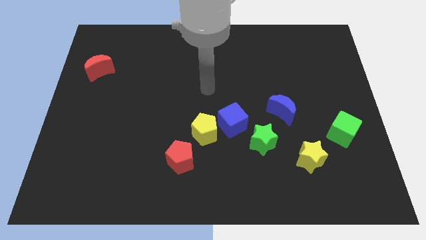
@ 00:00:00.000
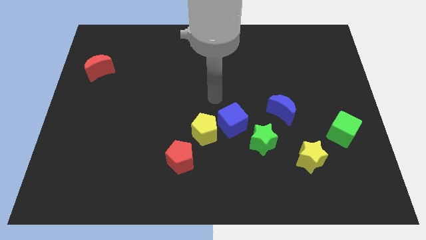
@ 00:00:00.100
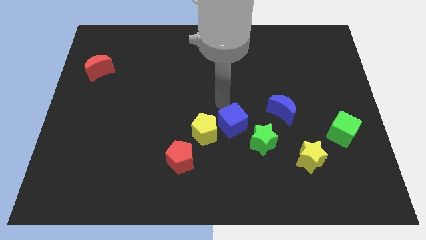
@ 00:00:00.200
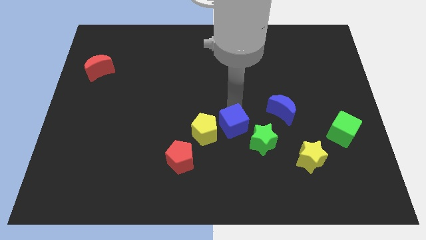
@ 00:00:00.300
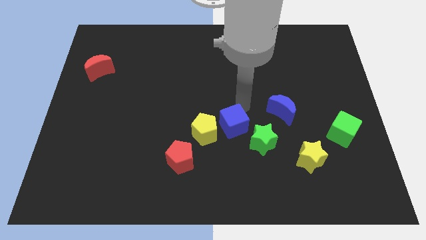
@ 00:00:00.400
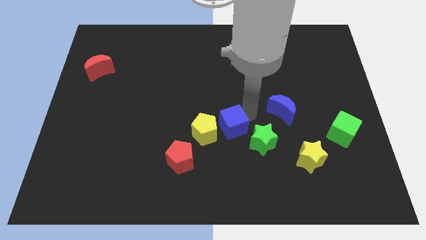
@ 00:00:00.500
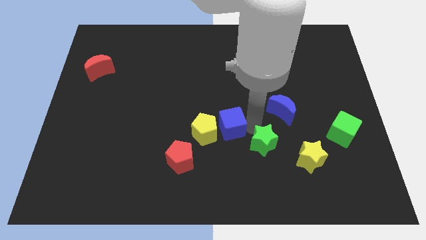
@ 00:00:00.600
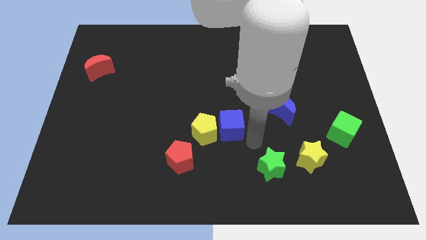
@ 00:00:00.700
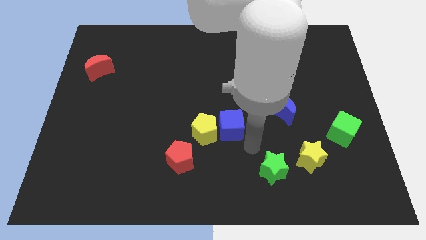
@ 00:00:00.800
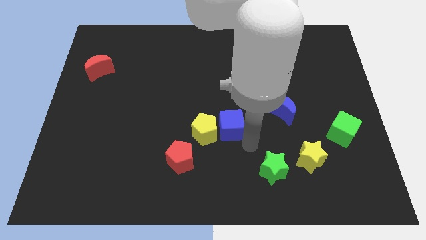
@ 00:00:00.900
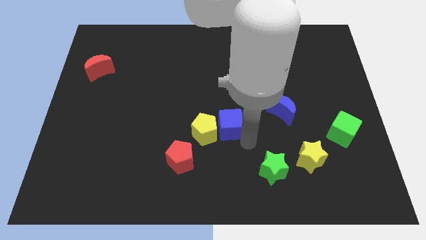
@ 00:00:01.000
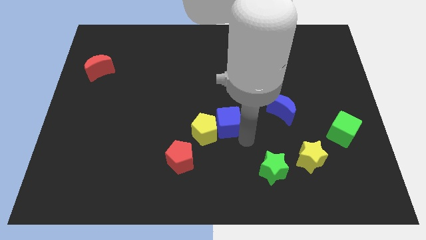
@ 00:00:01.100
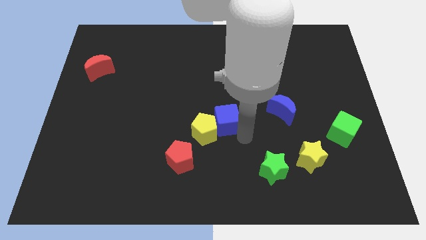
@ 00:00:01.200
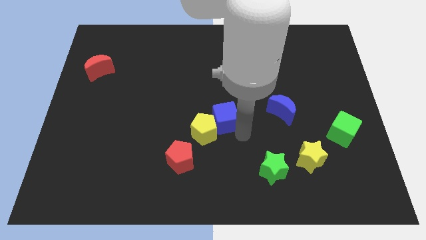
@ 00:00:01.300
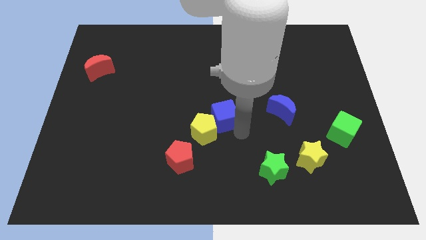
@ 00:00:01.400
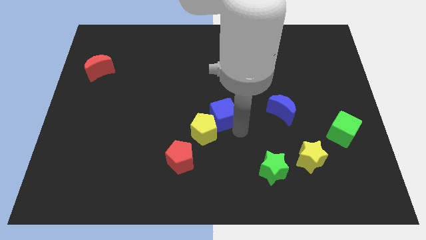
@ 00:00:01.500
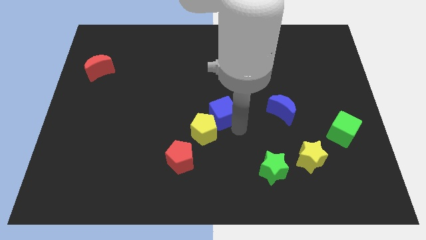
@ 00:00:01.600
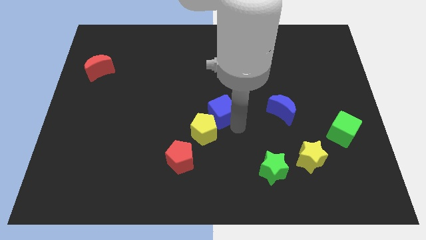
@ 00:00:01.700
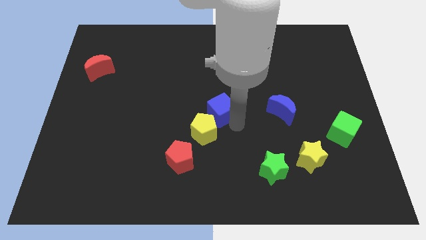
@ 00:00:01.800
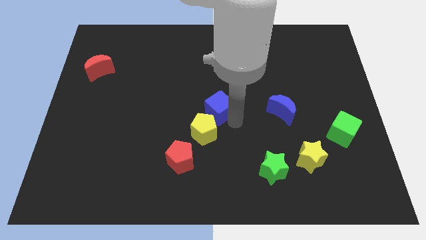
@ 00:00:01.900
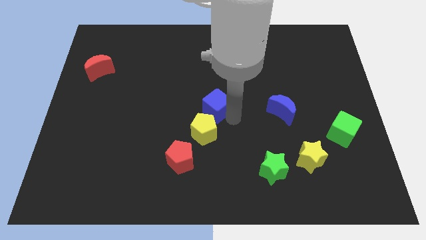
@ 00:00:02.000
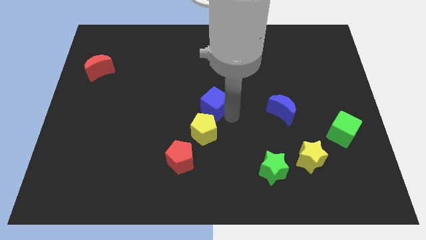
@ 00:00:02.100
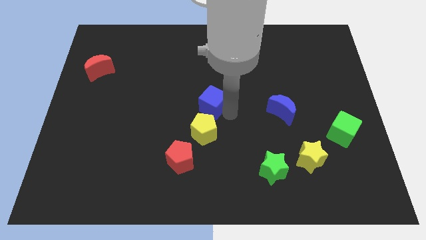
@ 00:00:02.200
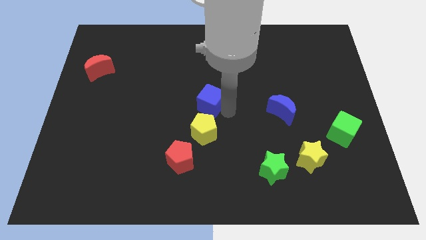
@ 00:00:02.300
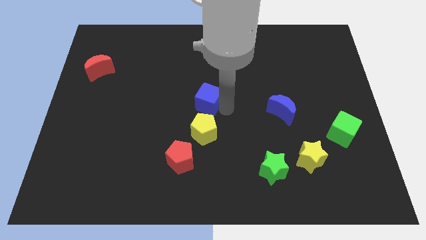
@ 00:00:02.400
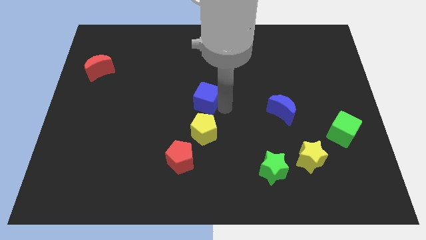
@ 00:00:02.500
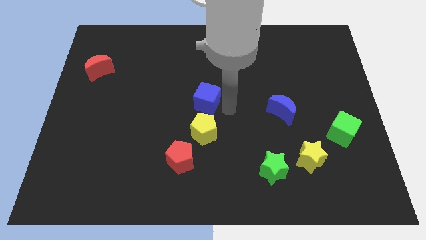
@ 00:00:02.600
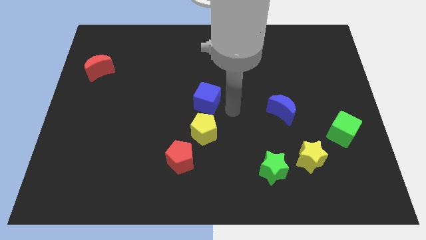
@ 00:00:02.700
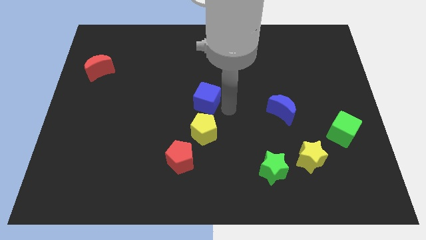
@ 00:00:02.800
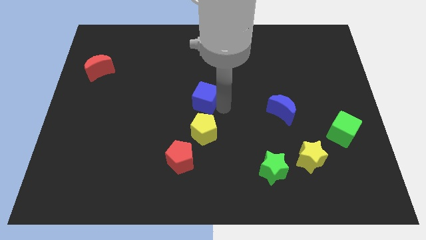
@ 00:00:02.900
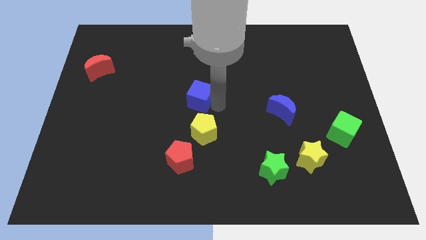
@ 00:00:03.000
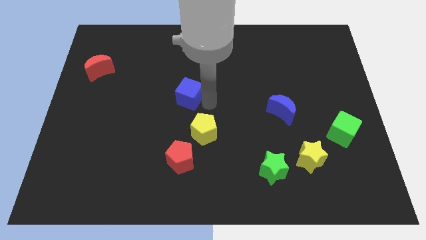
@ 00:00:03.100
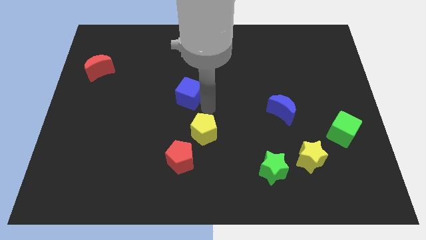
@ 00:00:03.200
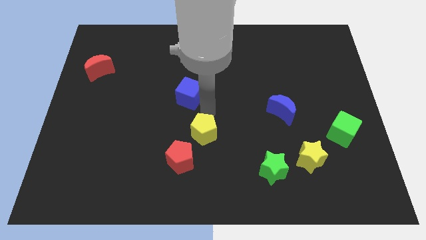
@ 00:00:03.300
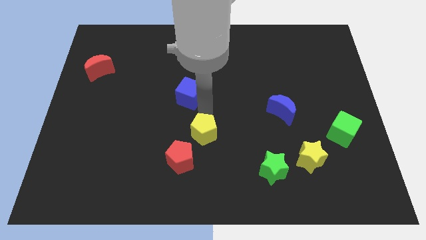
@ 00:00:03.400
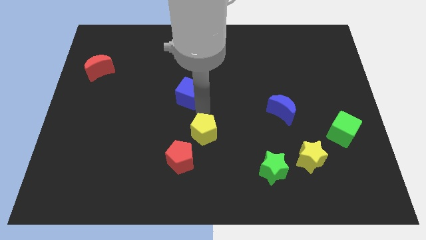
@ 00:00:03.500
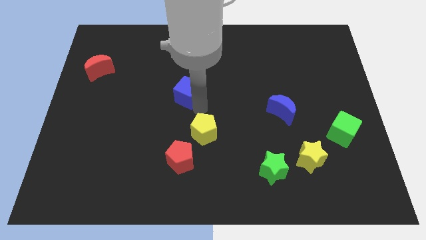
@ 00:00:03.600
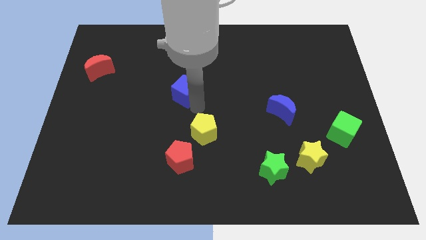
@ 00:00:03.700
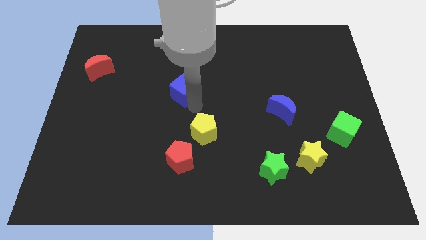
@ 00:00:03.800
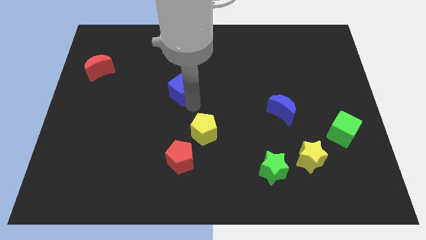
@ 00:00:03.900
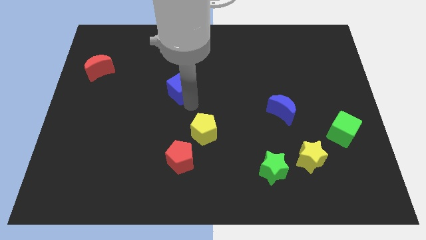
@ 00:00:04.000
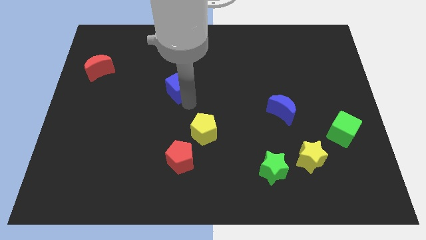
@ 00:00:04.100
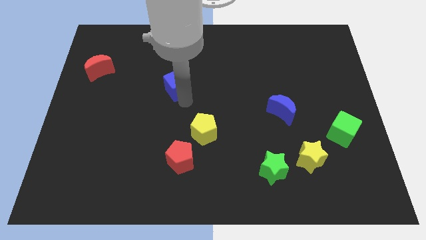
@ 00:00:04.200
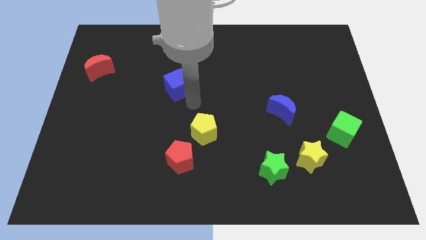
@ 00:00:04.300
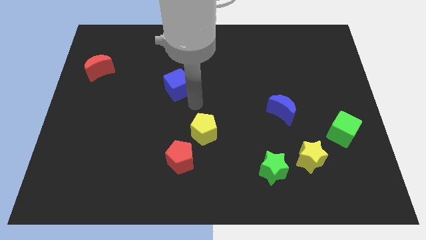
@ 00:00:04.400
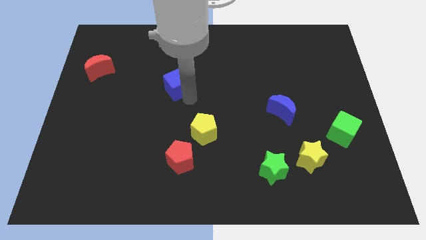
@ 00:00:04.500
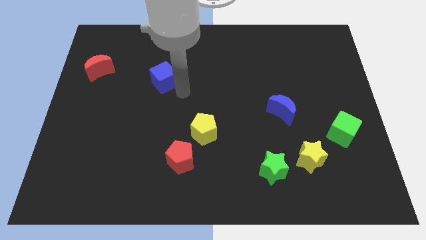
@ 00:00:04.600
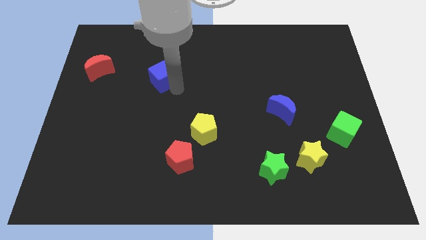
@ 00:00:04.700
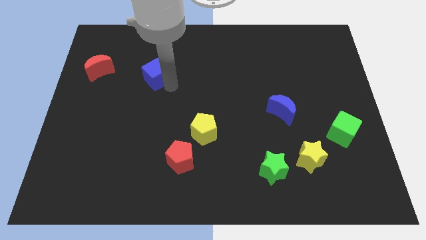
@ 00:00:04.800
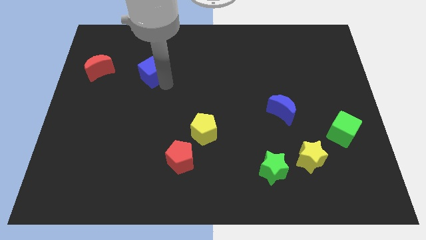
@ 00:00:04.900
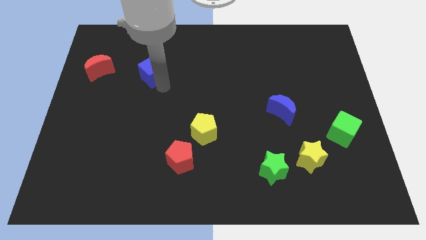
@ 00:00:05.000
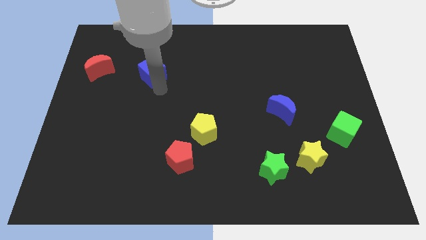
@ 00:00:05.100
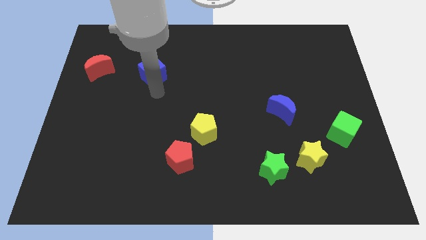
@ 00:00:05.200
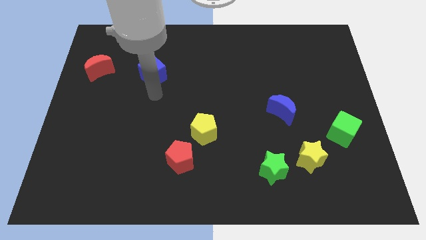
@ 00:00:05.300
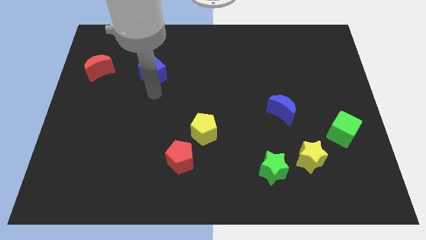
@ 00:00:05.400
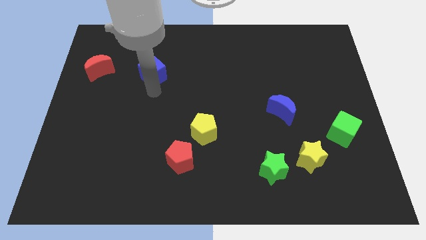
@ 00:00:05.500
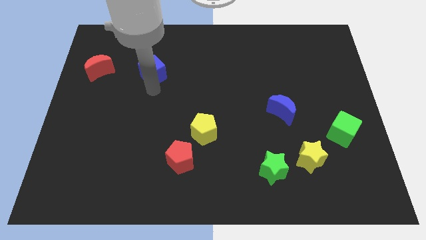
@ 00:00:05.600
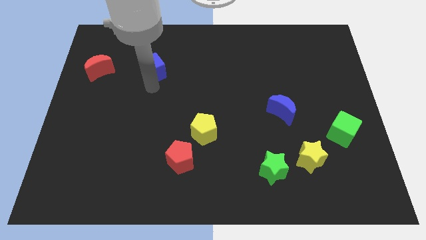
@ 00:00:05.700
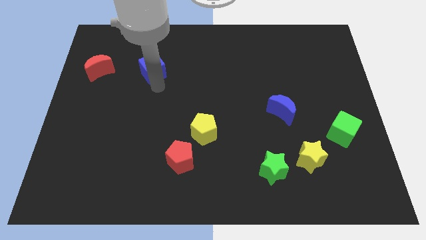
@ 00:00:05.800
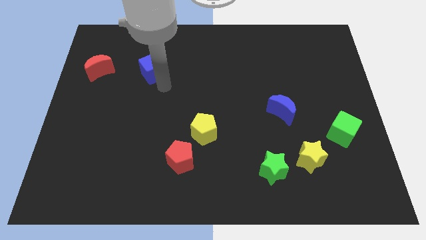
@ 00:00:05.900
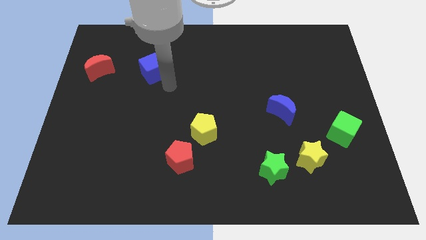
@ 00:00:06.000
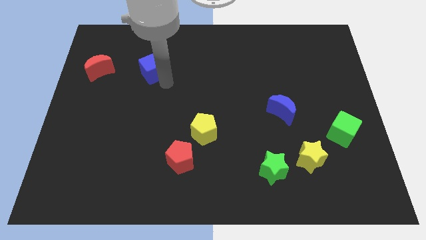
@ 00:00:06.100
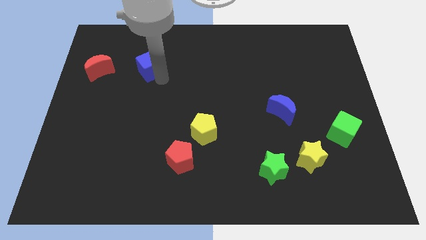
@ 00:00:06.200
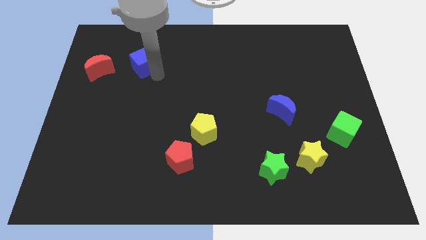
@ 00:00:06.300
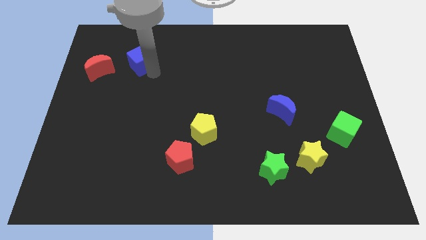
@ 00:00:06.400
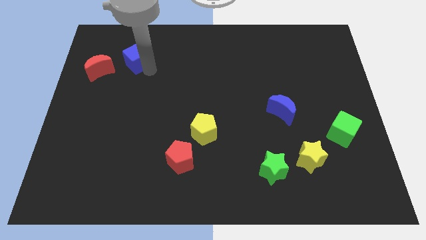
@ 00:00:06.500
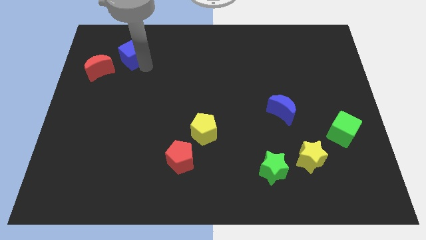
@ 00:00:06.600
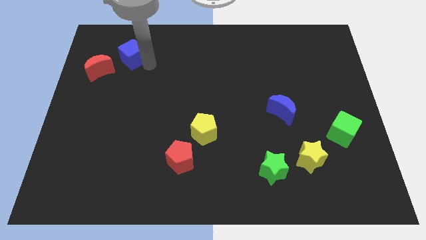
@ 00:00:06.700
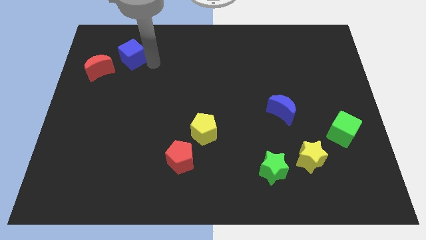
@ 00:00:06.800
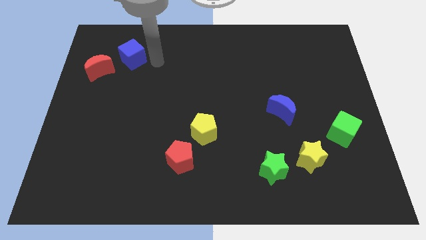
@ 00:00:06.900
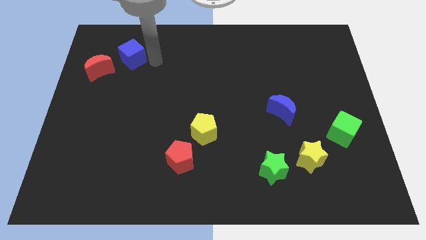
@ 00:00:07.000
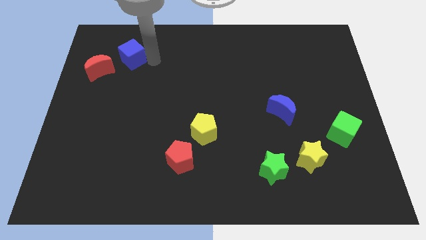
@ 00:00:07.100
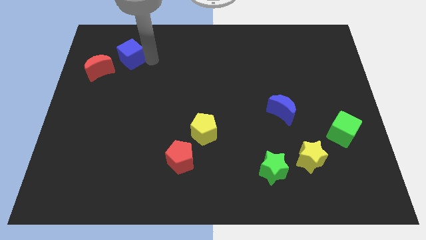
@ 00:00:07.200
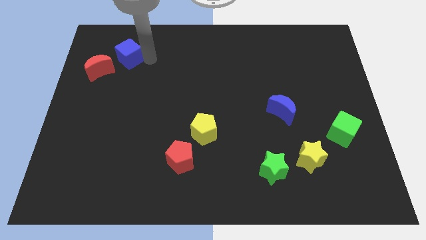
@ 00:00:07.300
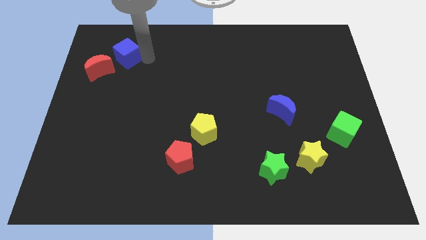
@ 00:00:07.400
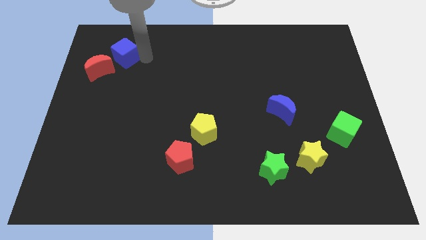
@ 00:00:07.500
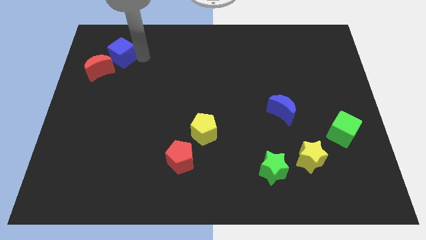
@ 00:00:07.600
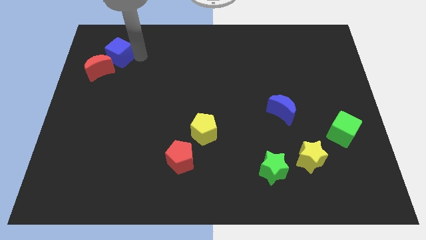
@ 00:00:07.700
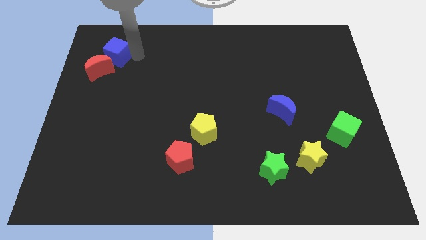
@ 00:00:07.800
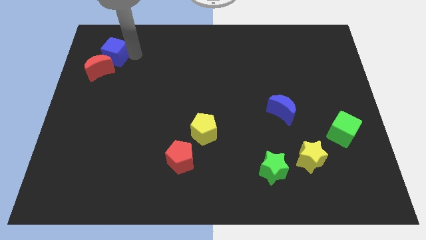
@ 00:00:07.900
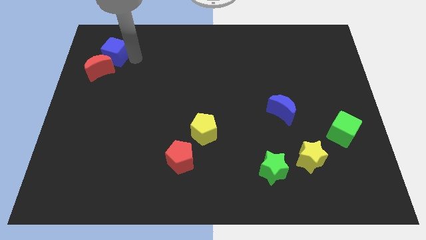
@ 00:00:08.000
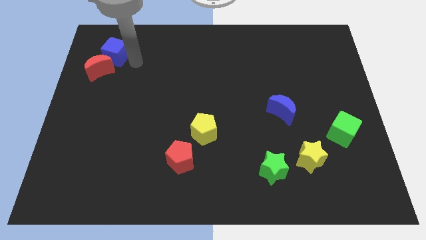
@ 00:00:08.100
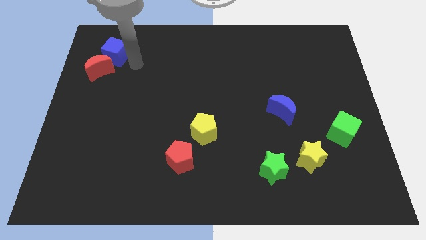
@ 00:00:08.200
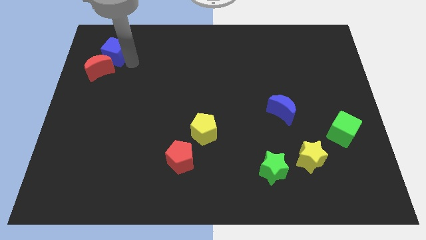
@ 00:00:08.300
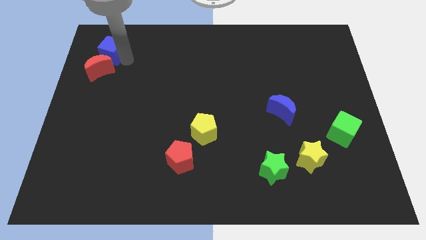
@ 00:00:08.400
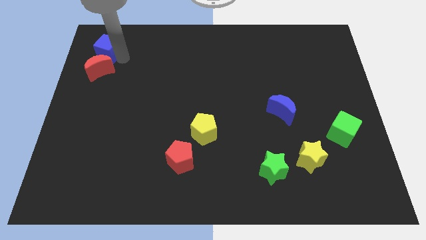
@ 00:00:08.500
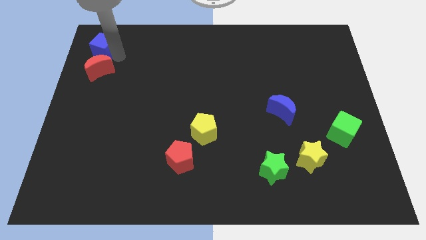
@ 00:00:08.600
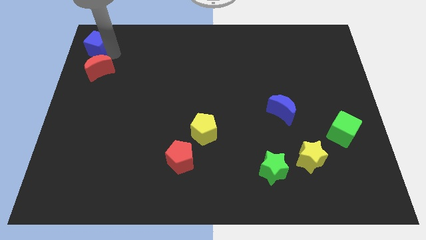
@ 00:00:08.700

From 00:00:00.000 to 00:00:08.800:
push the blue cube to the top left
